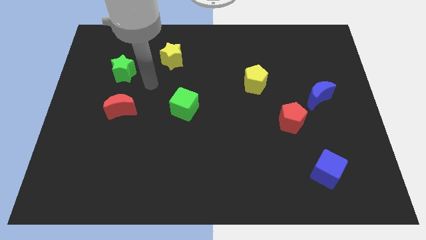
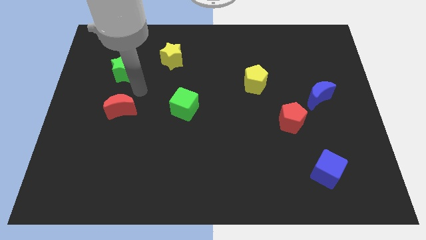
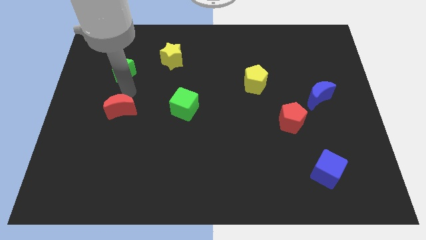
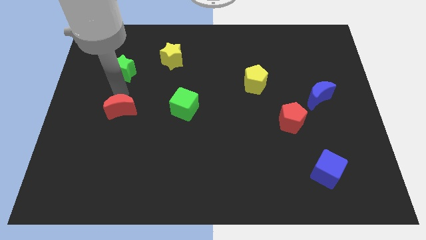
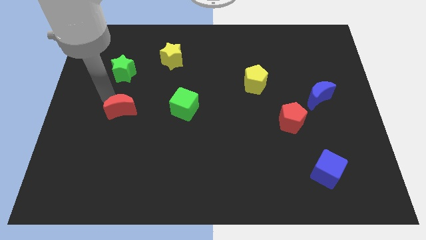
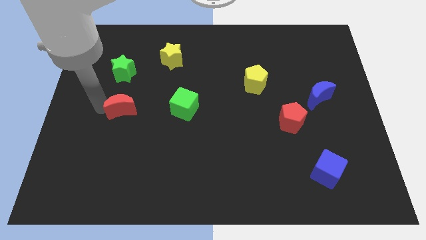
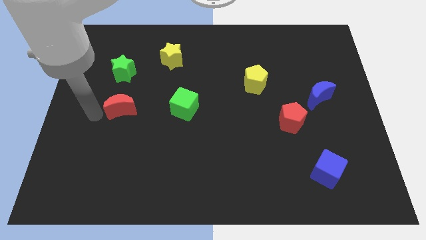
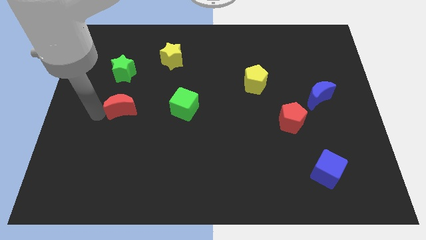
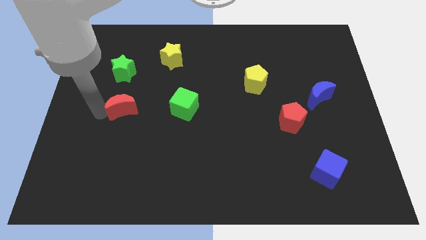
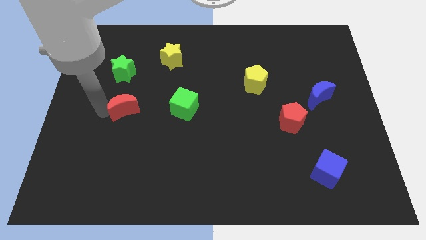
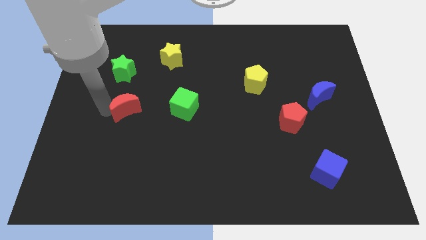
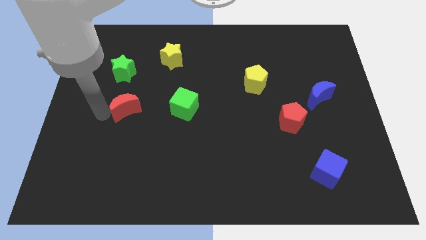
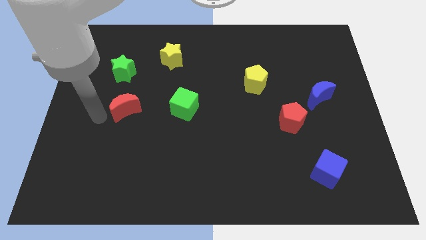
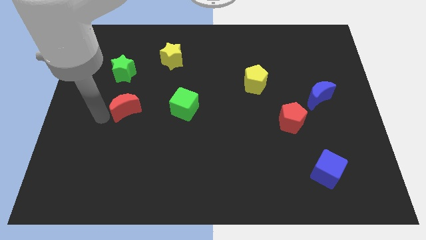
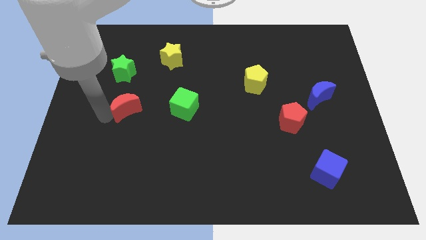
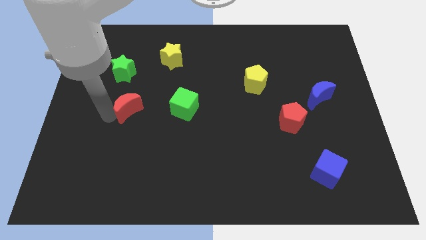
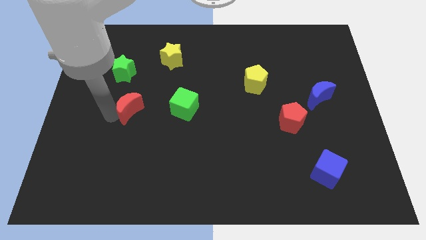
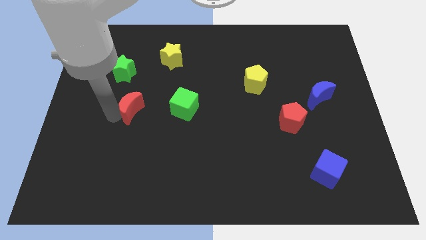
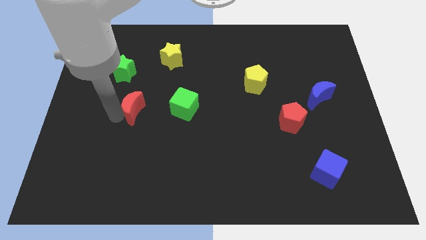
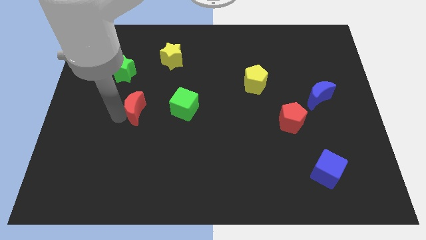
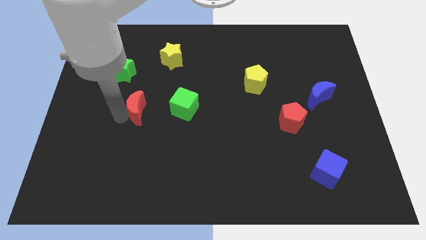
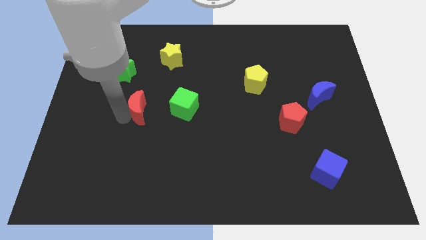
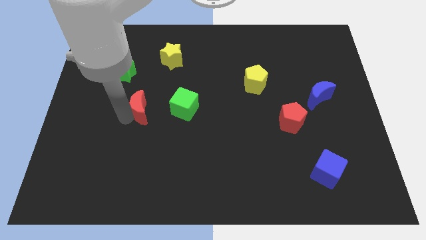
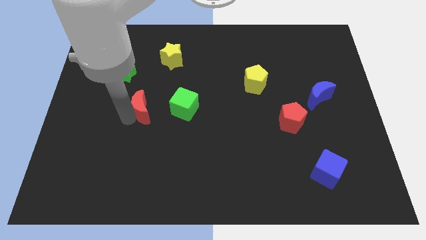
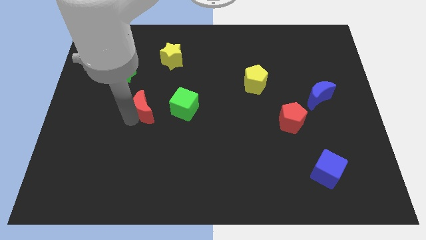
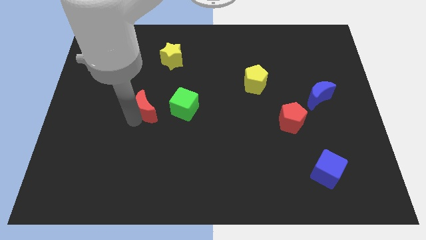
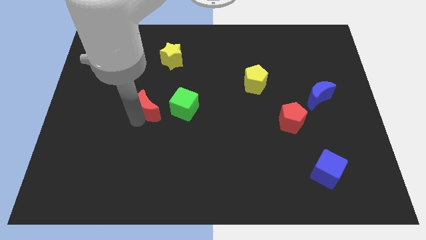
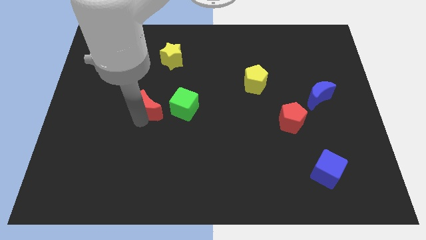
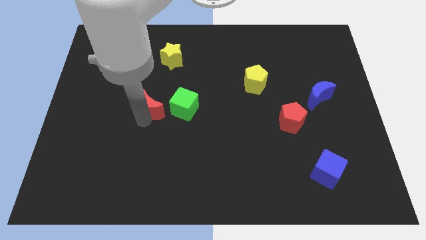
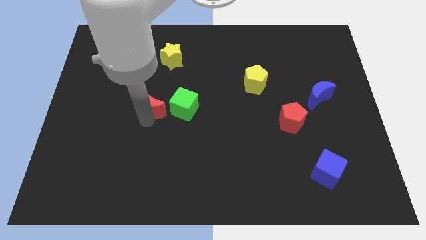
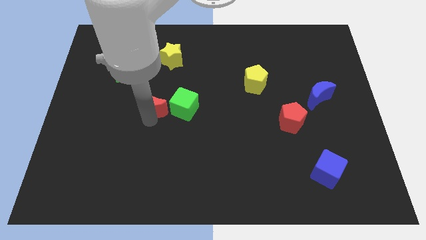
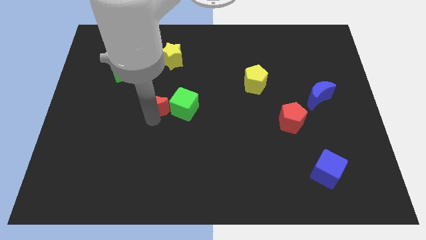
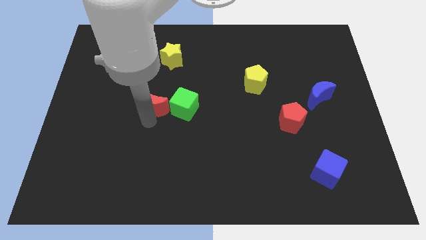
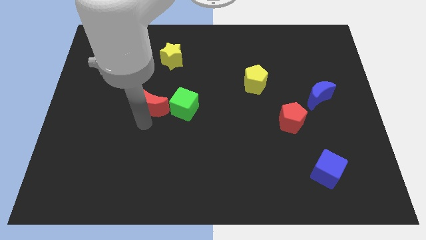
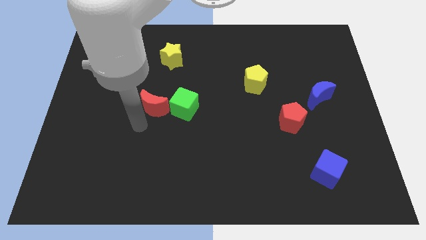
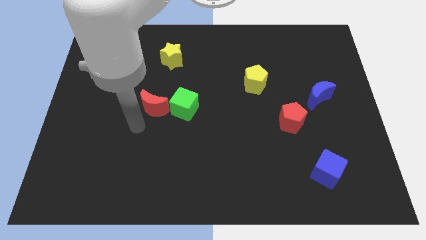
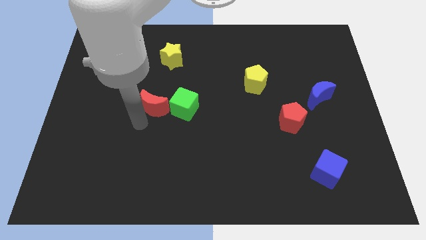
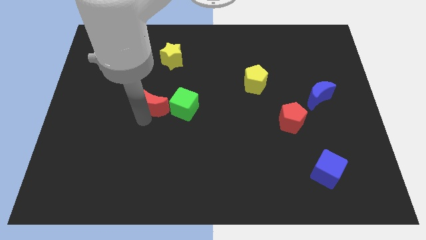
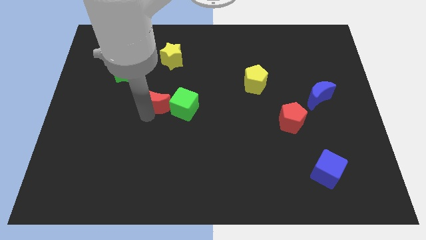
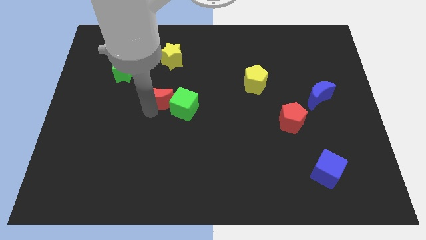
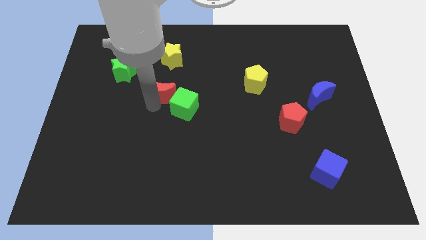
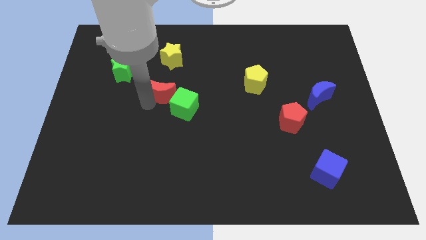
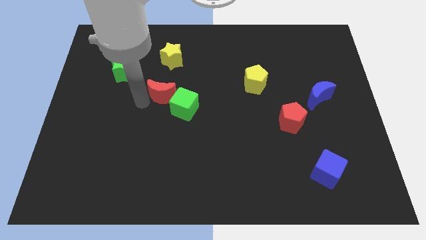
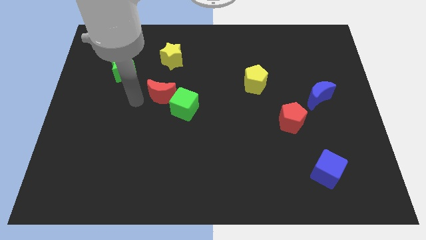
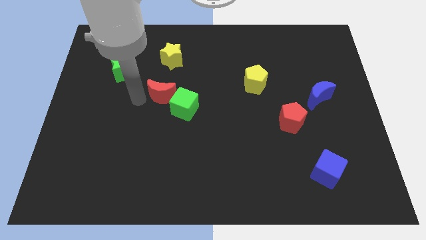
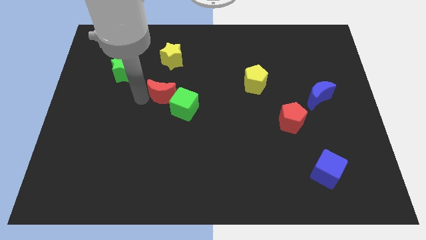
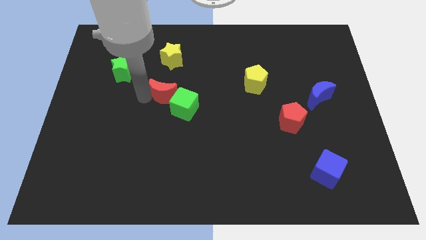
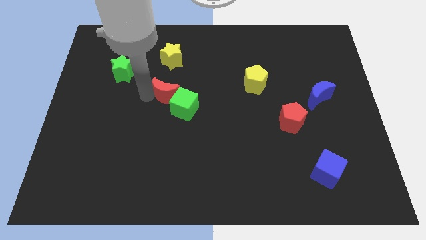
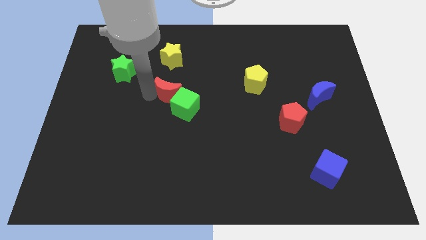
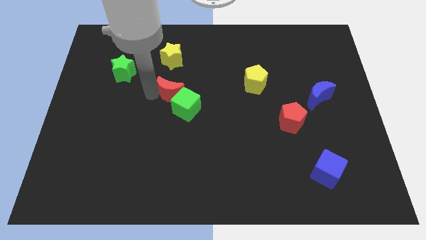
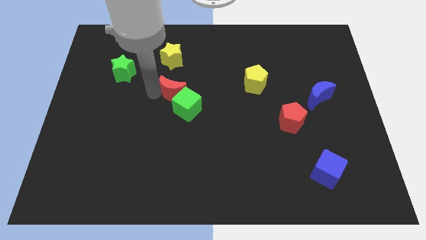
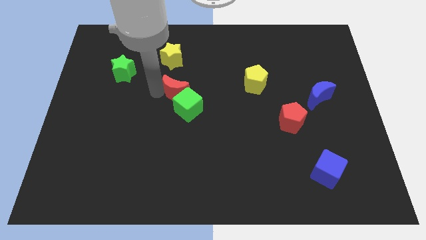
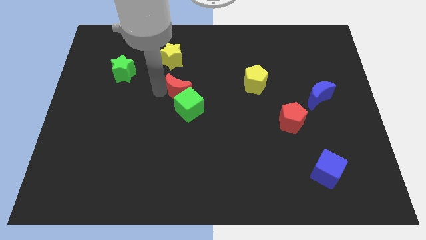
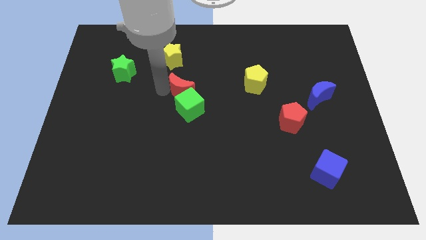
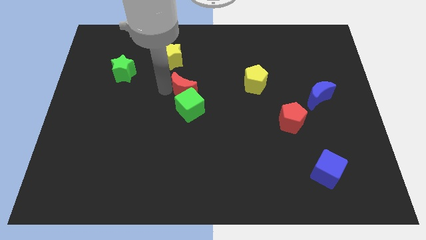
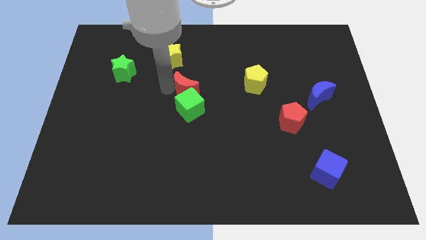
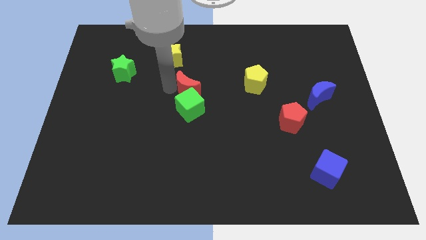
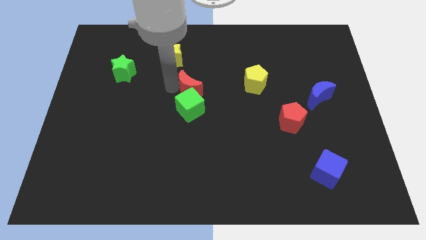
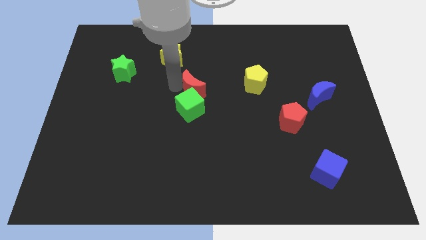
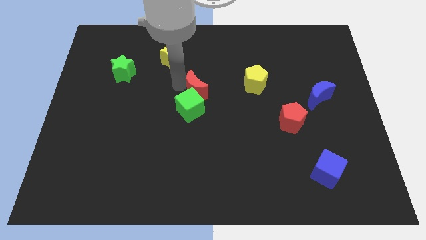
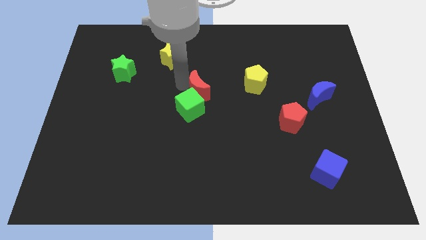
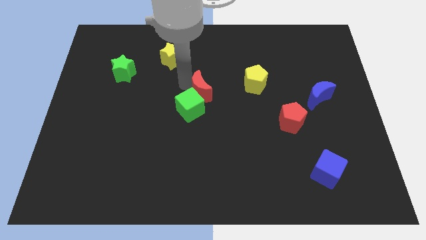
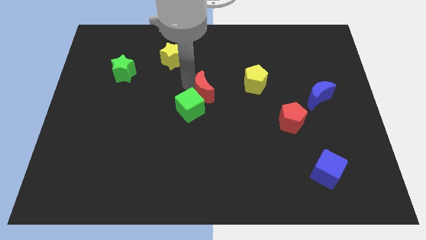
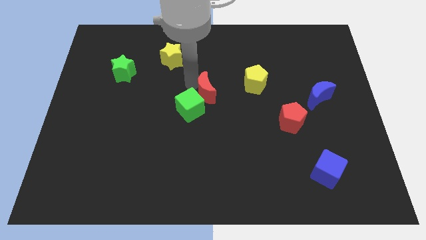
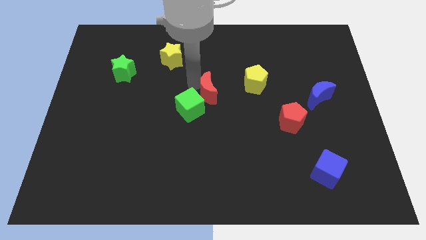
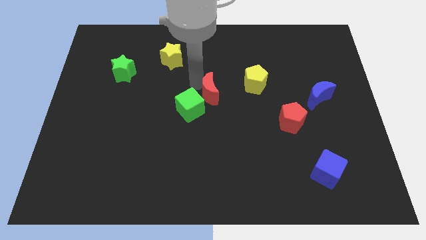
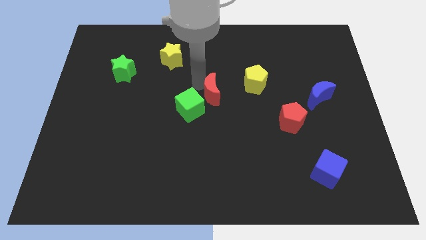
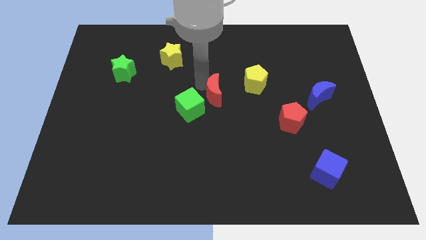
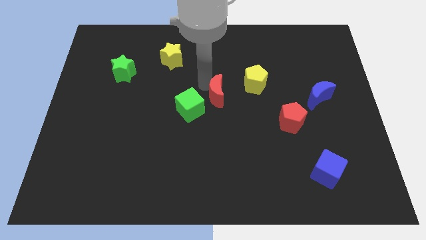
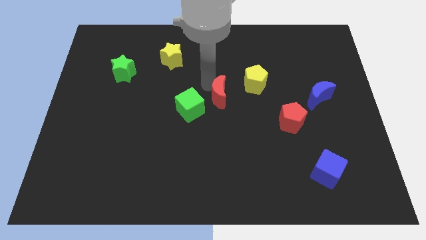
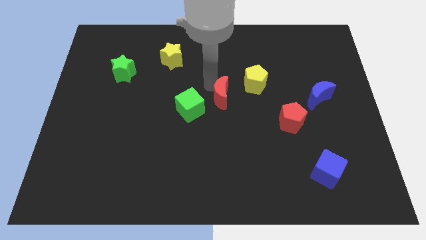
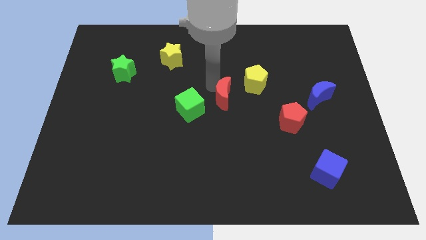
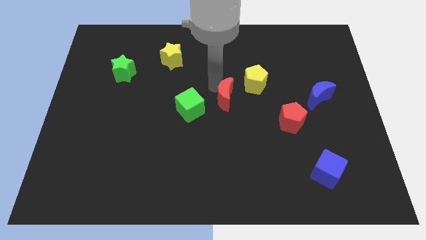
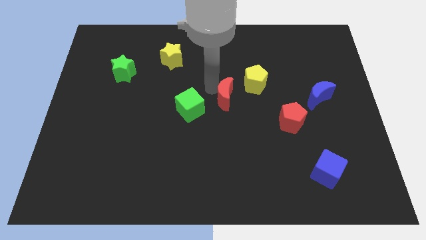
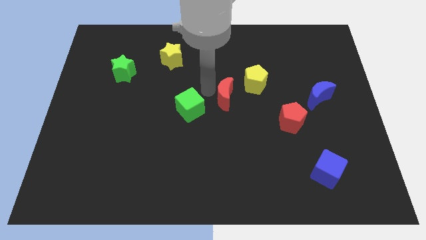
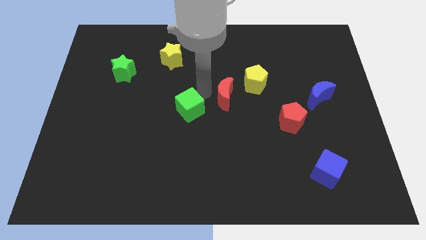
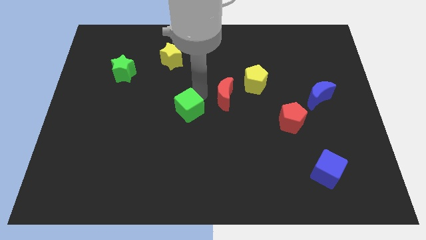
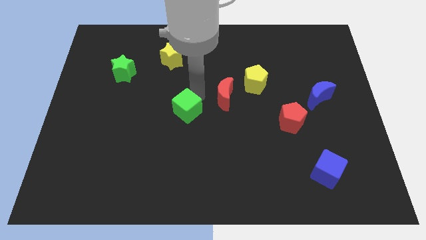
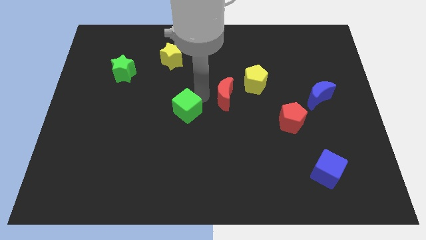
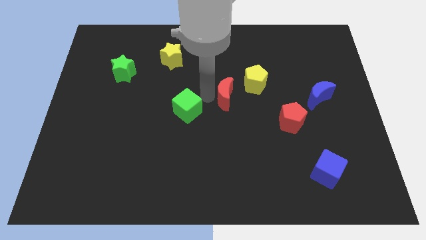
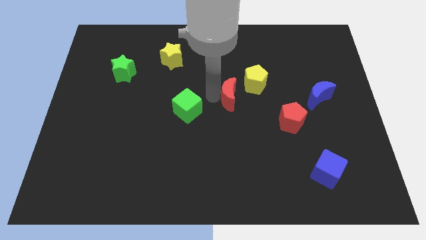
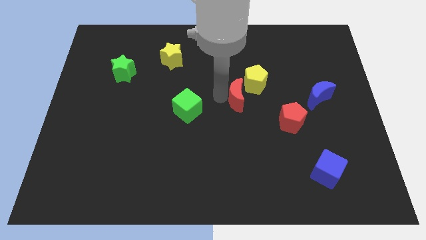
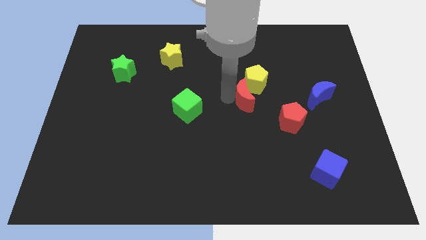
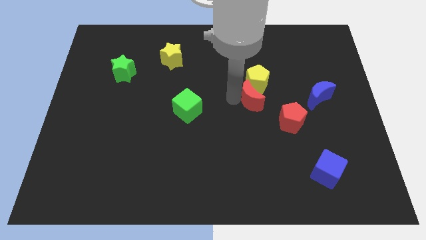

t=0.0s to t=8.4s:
slide the red moon left of the blue moon
